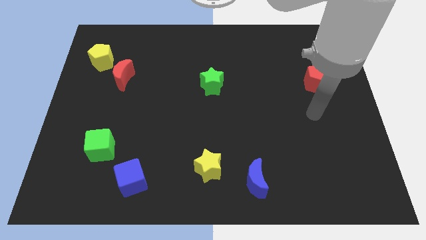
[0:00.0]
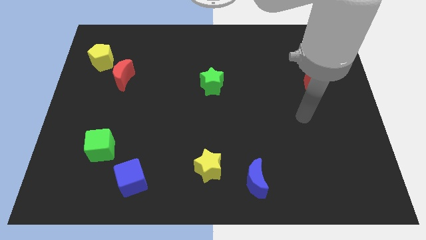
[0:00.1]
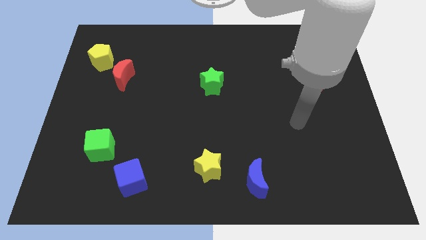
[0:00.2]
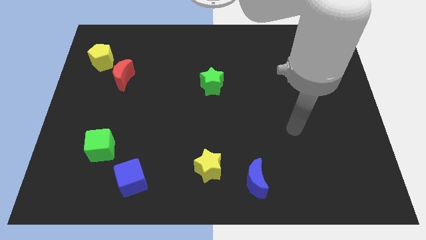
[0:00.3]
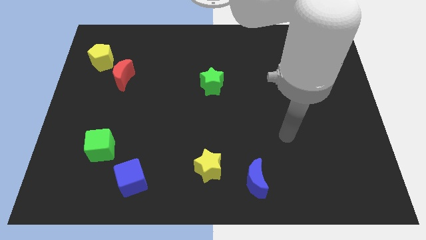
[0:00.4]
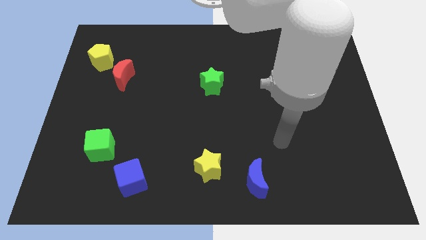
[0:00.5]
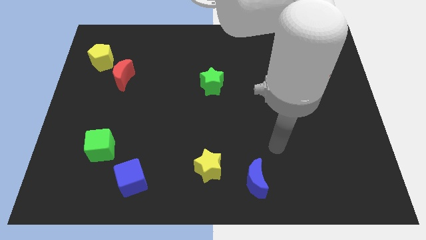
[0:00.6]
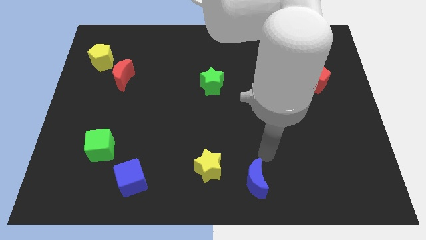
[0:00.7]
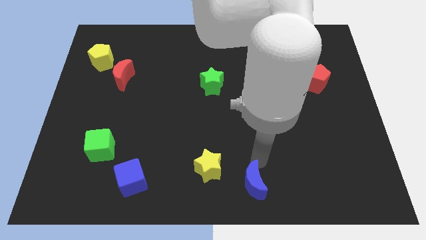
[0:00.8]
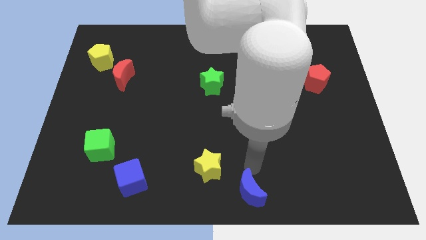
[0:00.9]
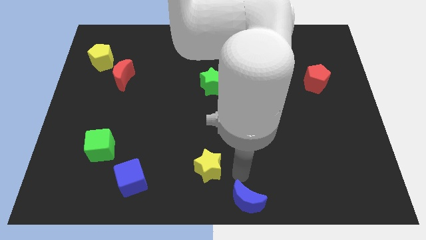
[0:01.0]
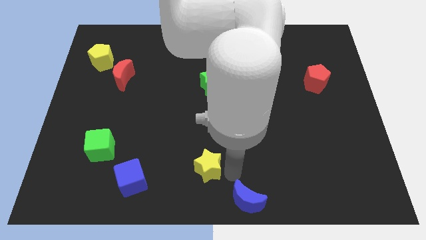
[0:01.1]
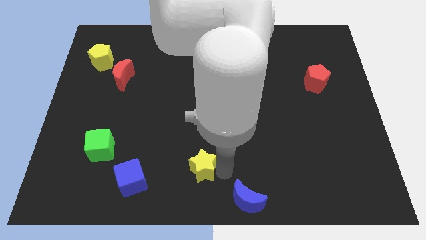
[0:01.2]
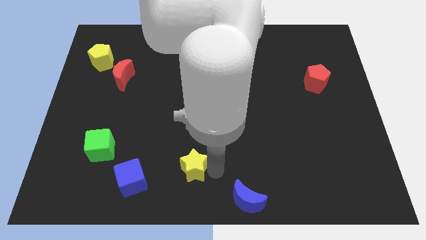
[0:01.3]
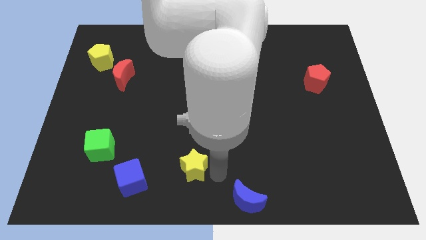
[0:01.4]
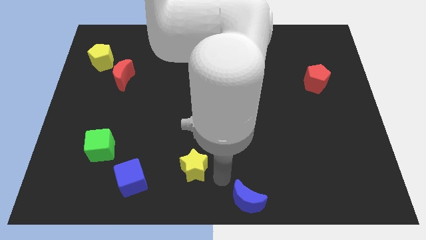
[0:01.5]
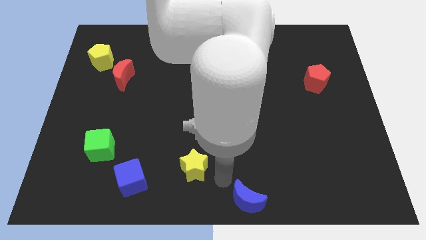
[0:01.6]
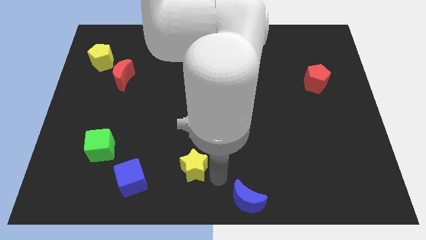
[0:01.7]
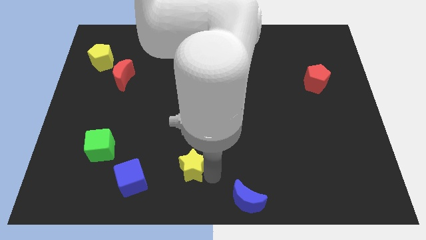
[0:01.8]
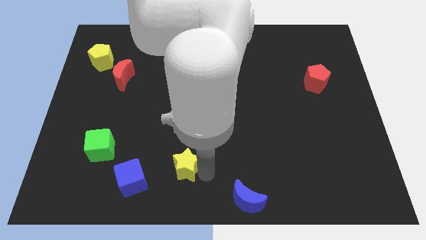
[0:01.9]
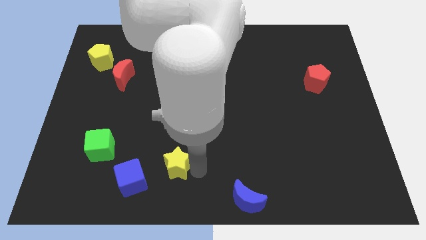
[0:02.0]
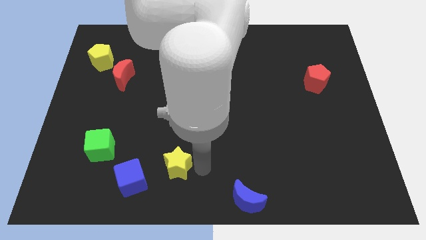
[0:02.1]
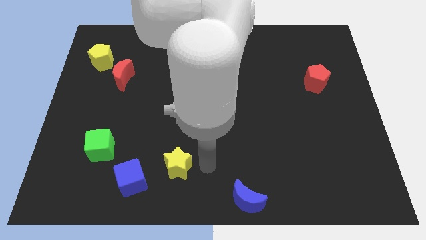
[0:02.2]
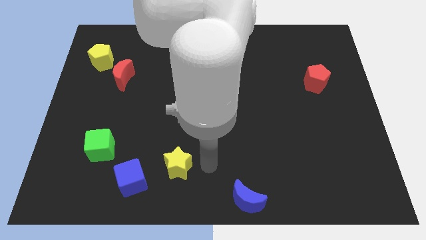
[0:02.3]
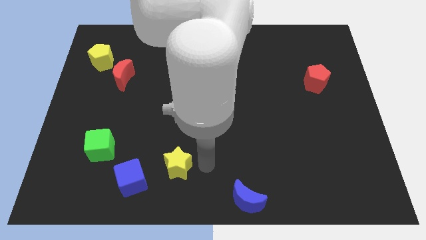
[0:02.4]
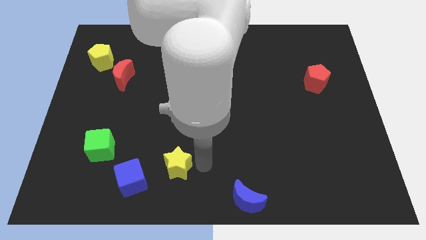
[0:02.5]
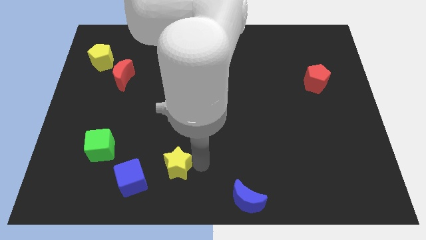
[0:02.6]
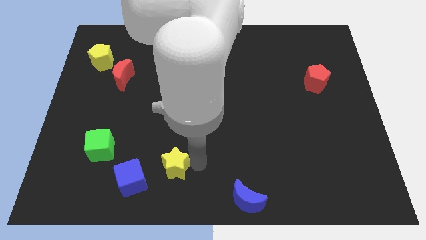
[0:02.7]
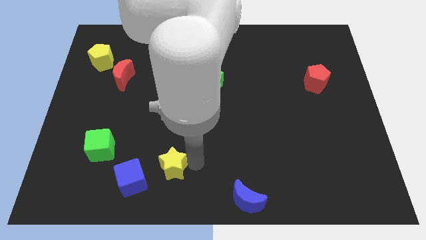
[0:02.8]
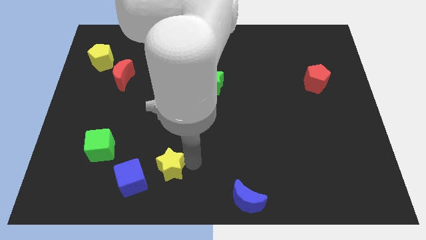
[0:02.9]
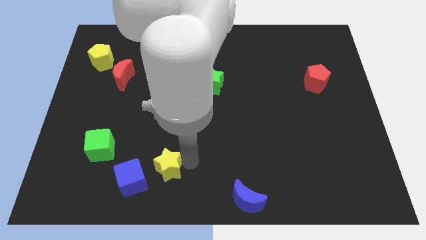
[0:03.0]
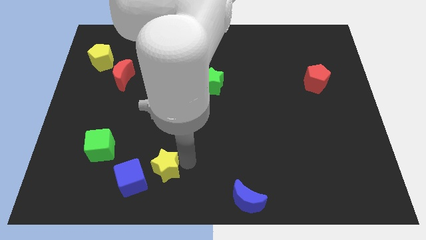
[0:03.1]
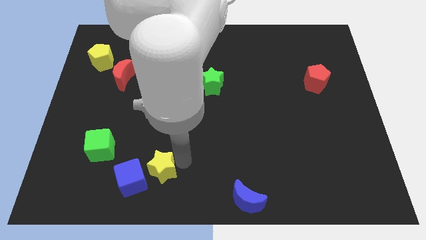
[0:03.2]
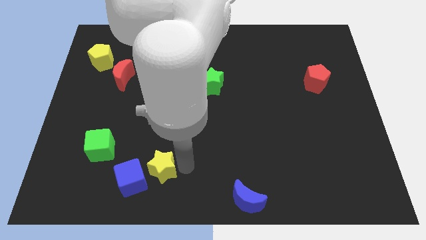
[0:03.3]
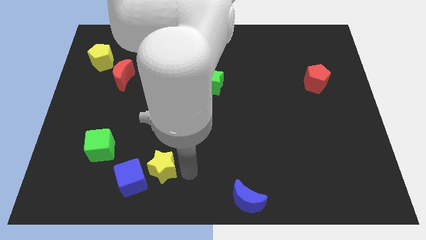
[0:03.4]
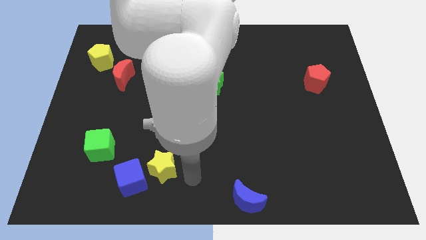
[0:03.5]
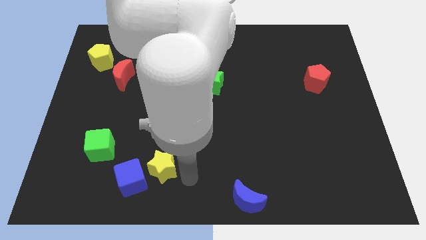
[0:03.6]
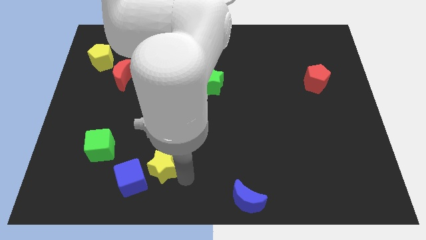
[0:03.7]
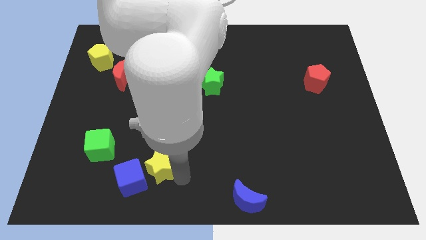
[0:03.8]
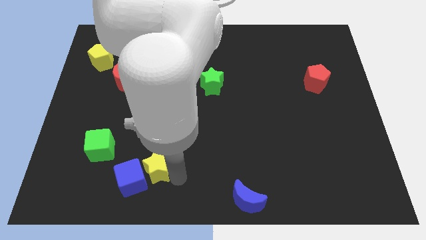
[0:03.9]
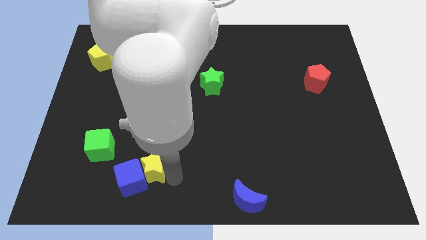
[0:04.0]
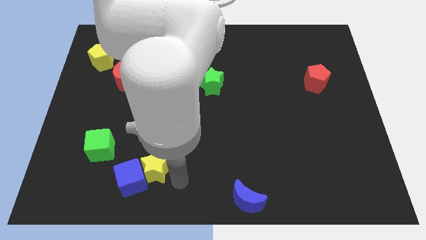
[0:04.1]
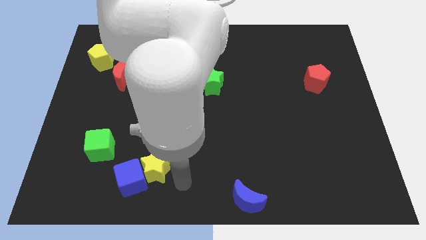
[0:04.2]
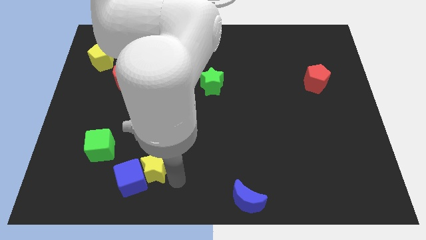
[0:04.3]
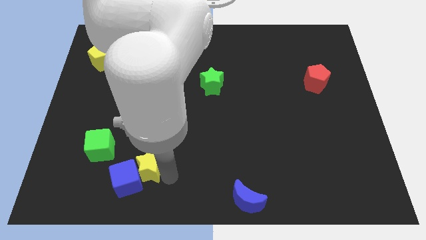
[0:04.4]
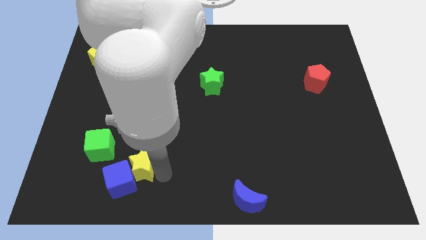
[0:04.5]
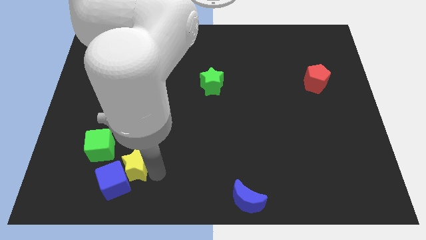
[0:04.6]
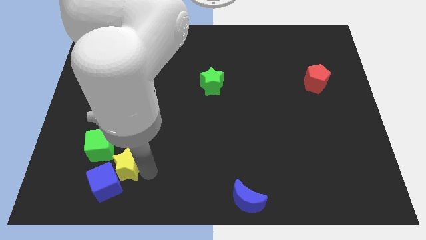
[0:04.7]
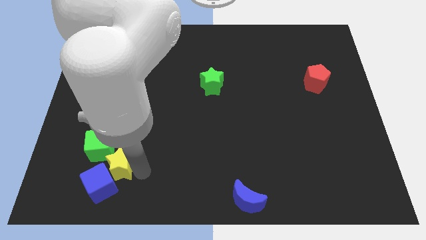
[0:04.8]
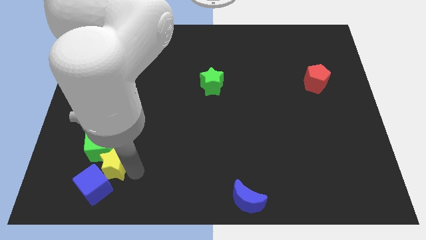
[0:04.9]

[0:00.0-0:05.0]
put the yellow star towards the green cube

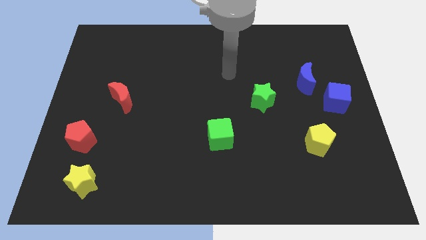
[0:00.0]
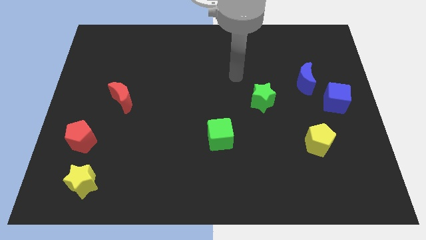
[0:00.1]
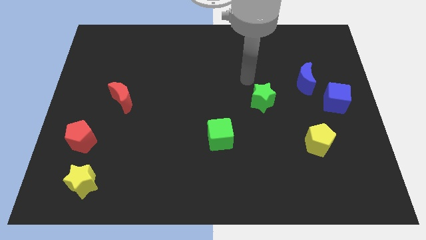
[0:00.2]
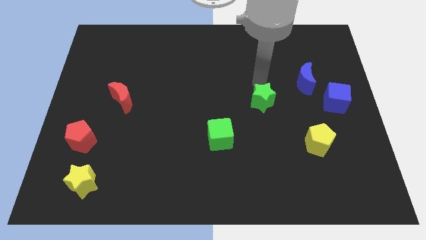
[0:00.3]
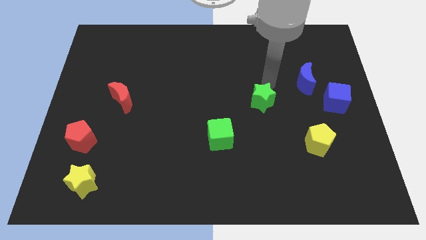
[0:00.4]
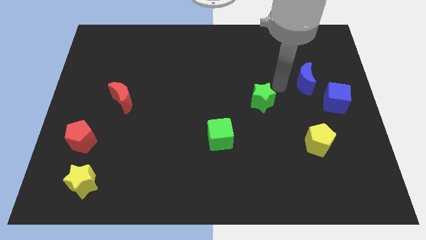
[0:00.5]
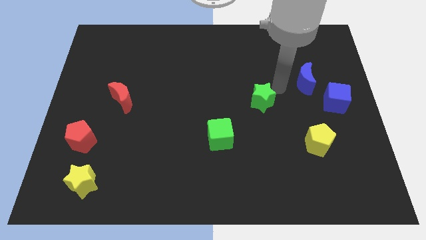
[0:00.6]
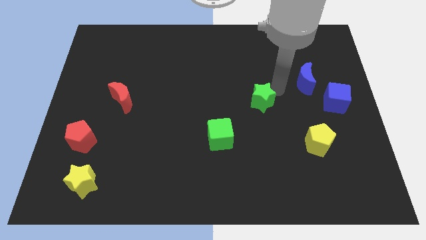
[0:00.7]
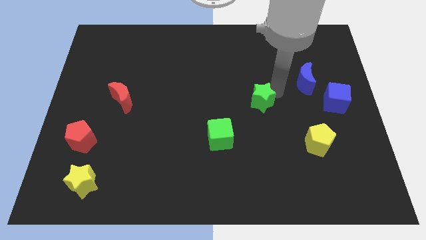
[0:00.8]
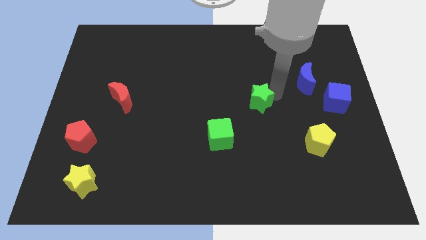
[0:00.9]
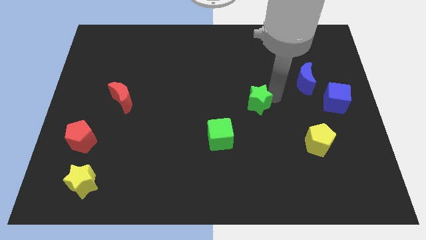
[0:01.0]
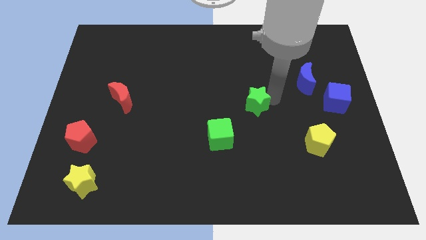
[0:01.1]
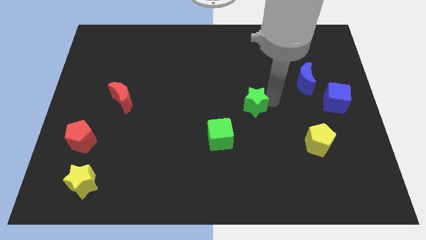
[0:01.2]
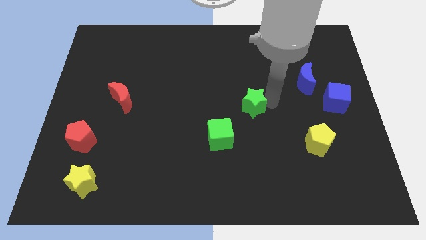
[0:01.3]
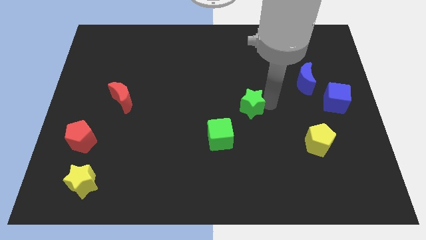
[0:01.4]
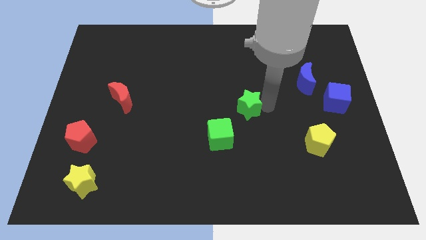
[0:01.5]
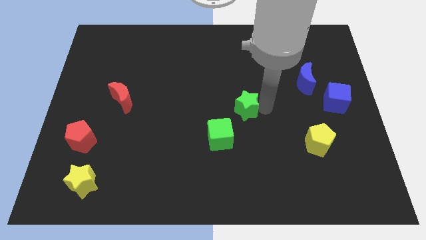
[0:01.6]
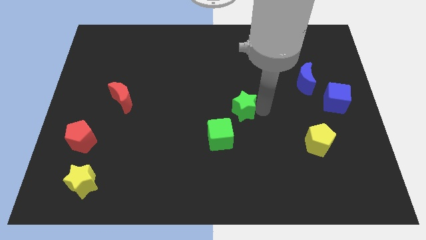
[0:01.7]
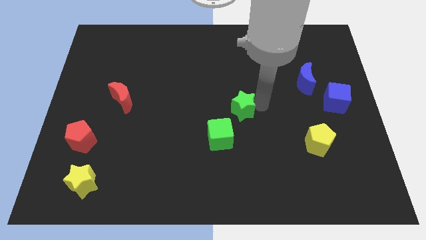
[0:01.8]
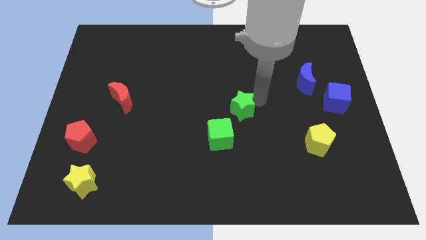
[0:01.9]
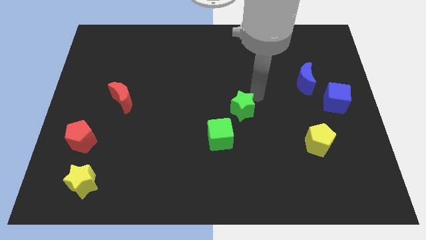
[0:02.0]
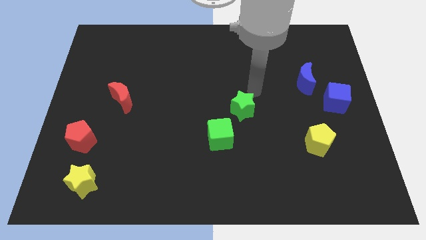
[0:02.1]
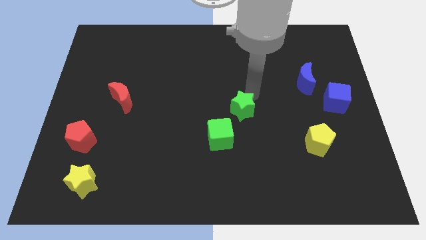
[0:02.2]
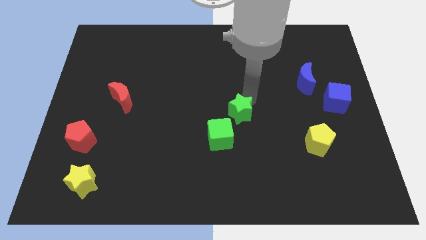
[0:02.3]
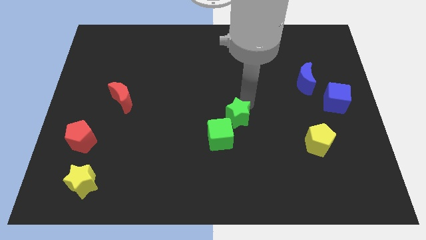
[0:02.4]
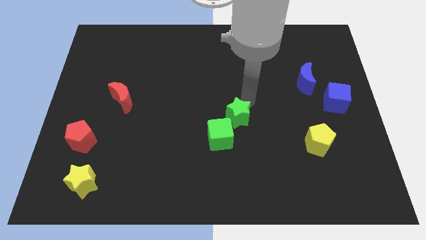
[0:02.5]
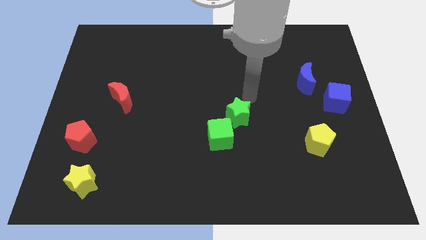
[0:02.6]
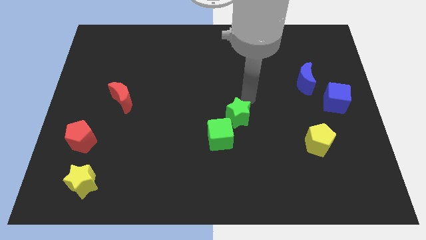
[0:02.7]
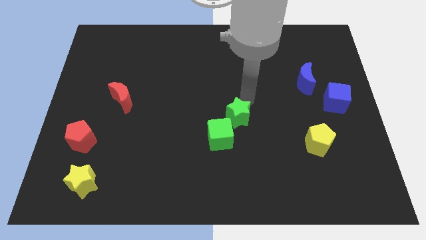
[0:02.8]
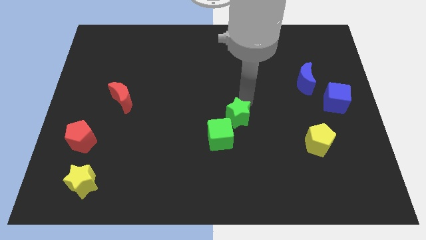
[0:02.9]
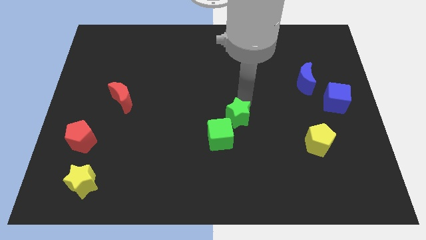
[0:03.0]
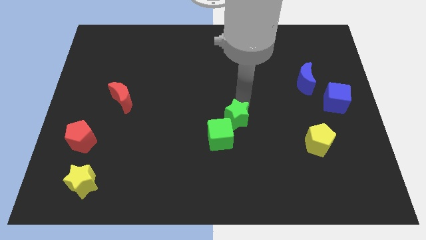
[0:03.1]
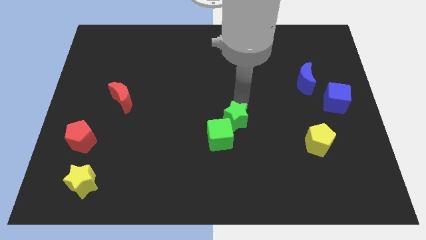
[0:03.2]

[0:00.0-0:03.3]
put the green star to the green cube
